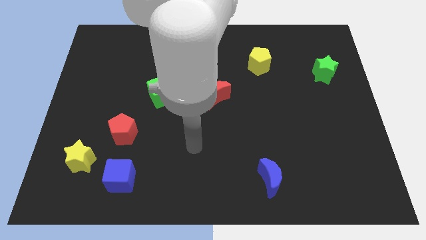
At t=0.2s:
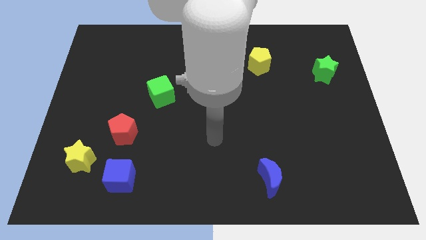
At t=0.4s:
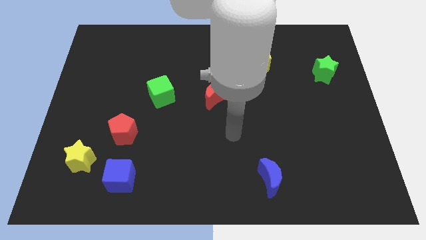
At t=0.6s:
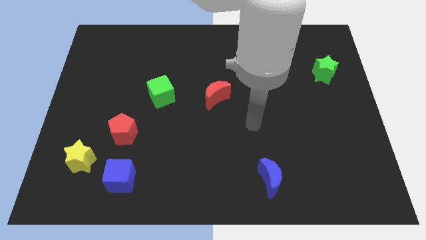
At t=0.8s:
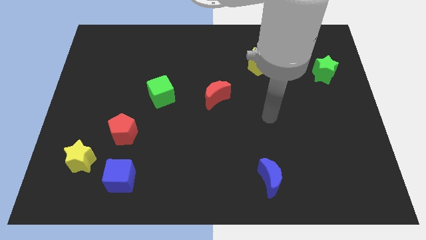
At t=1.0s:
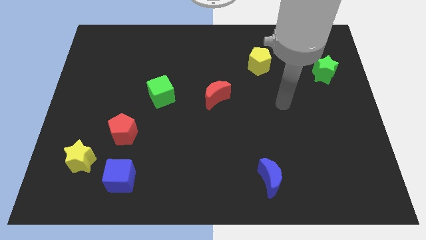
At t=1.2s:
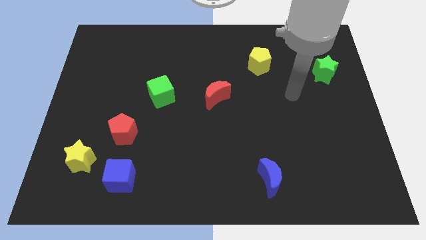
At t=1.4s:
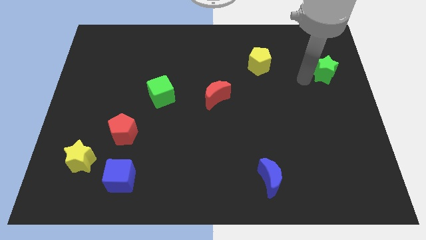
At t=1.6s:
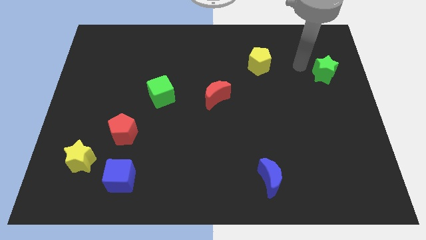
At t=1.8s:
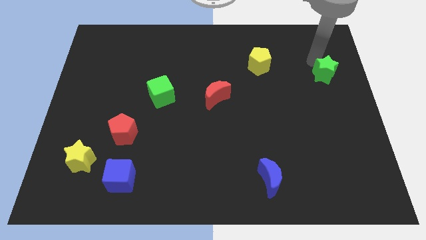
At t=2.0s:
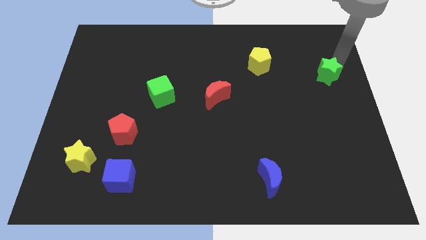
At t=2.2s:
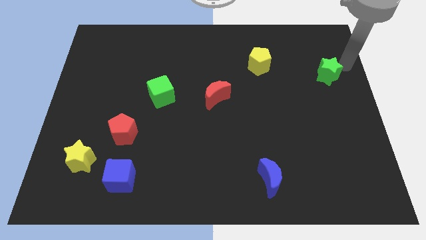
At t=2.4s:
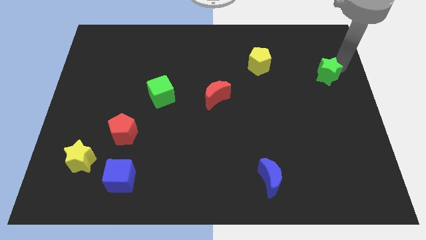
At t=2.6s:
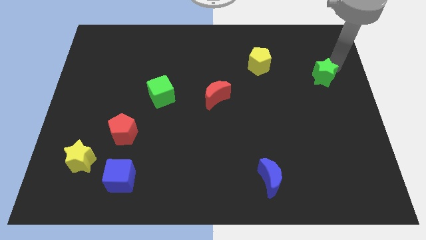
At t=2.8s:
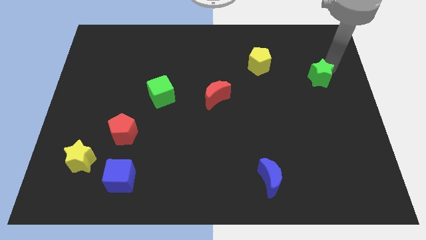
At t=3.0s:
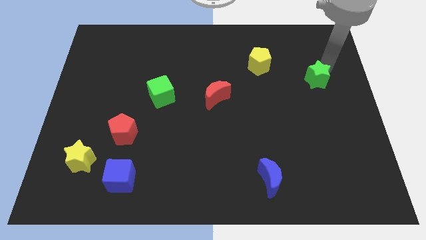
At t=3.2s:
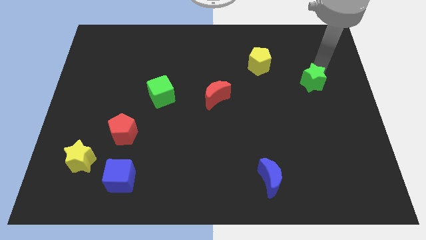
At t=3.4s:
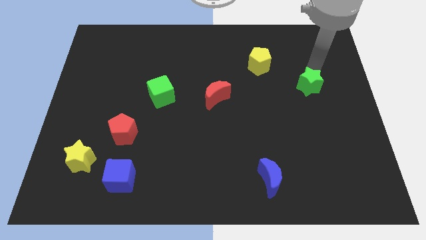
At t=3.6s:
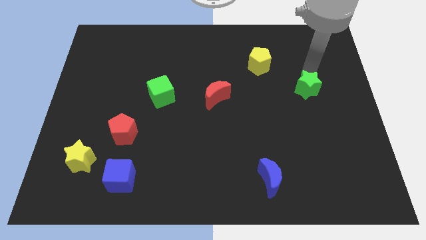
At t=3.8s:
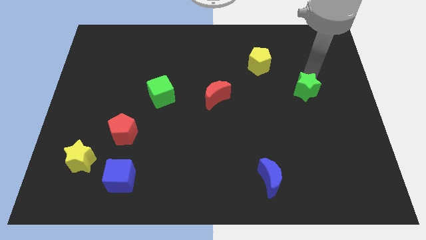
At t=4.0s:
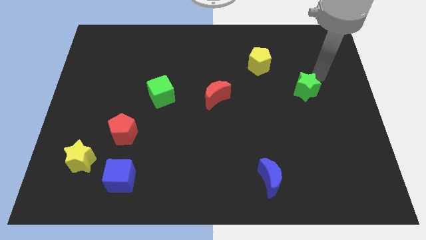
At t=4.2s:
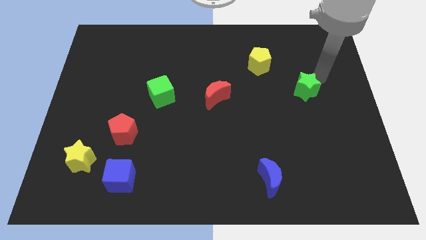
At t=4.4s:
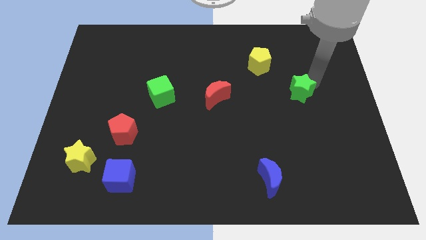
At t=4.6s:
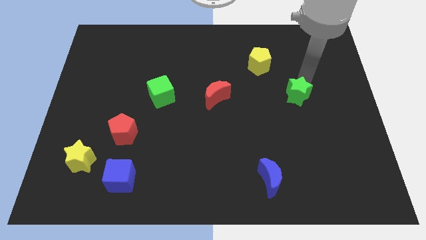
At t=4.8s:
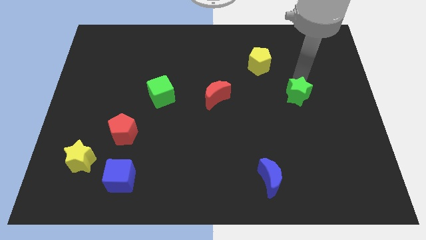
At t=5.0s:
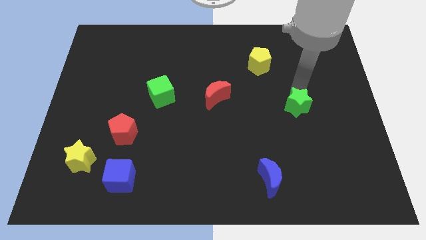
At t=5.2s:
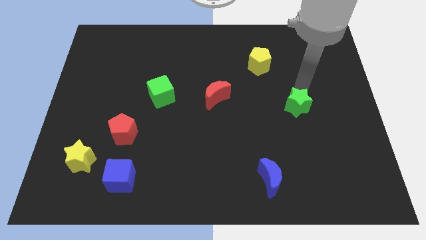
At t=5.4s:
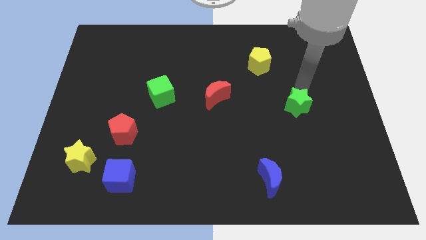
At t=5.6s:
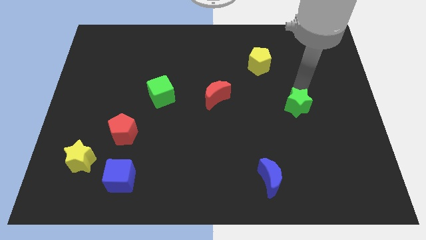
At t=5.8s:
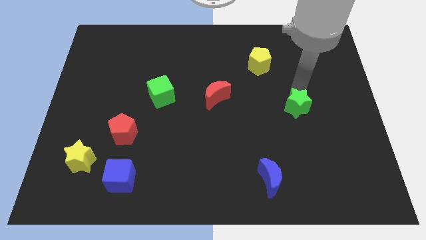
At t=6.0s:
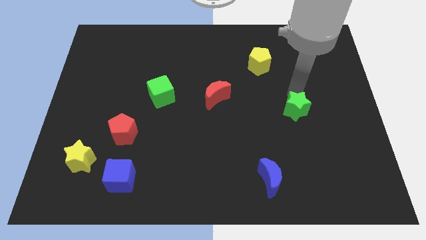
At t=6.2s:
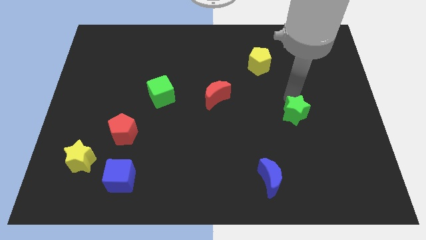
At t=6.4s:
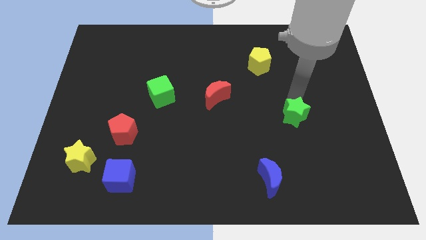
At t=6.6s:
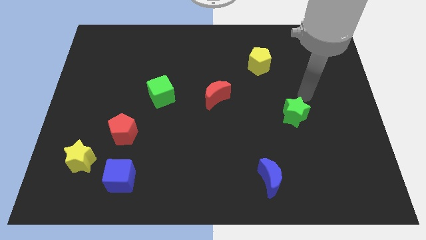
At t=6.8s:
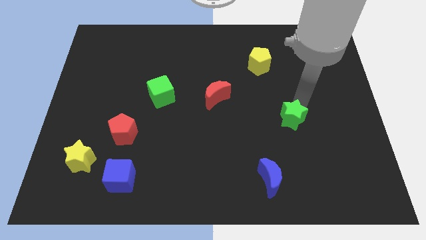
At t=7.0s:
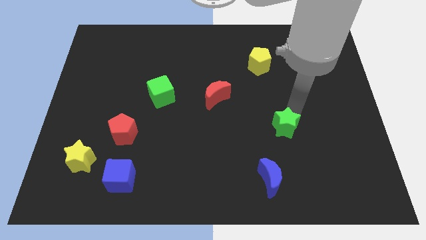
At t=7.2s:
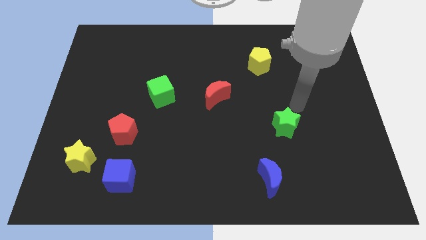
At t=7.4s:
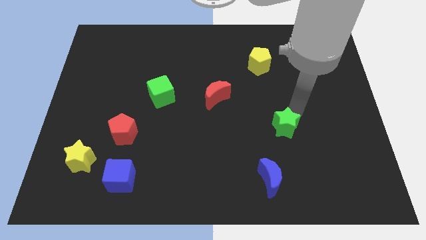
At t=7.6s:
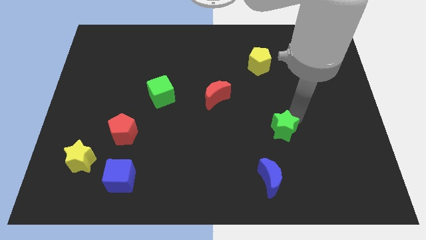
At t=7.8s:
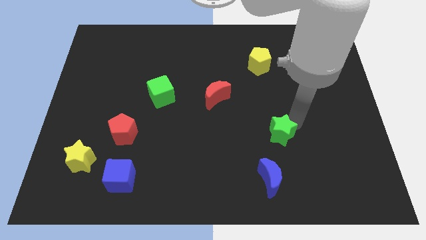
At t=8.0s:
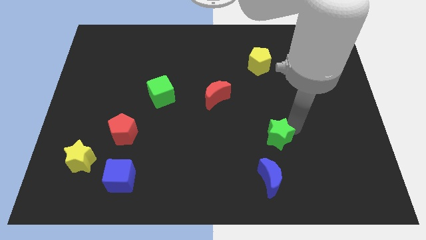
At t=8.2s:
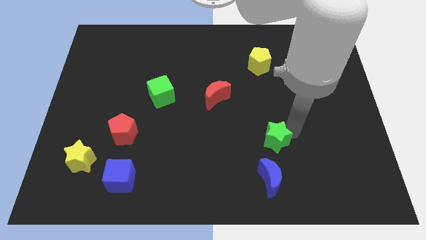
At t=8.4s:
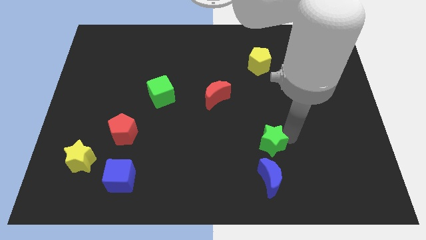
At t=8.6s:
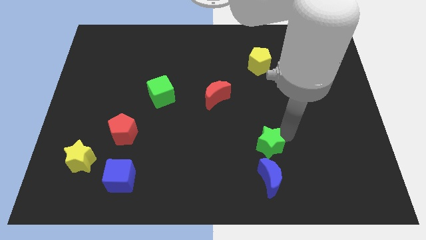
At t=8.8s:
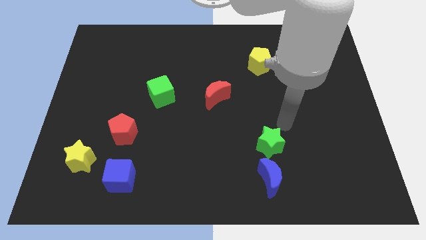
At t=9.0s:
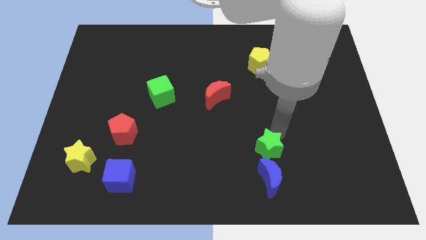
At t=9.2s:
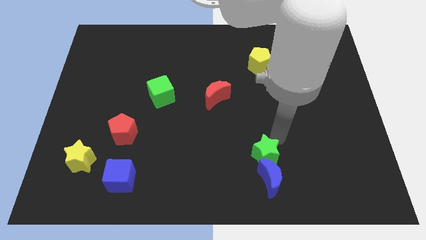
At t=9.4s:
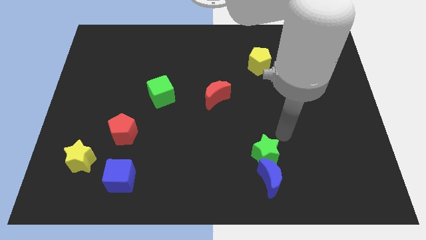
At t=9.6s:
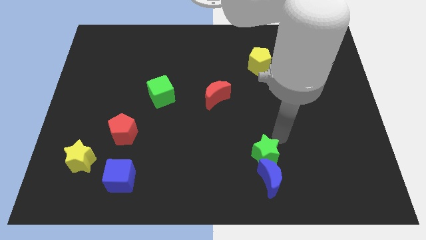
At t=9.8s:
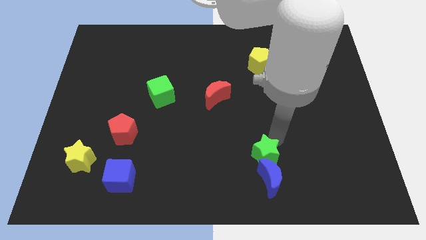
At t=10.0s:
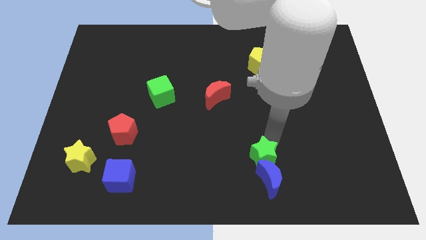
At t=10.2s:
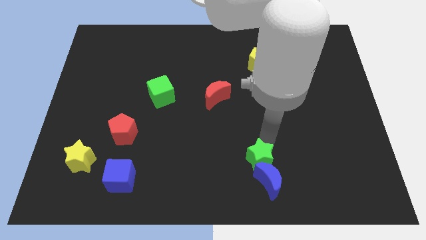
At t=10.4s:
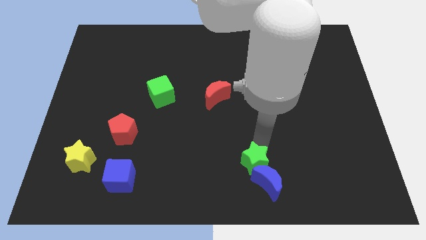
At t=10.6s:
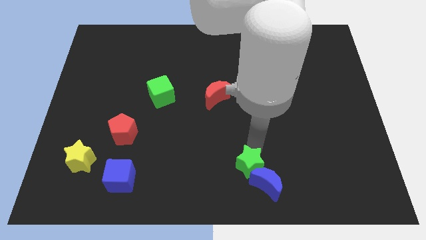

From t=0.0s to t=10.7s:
move the green star to the bottom side
